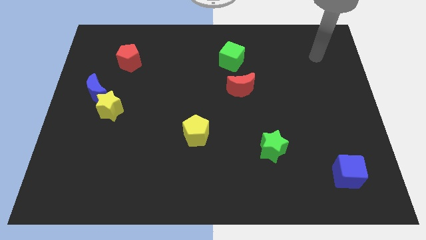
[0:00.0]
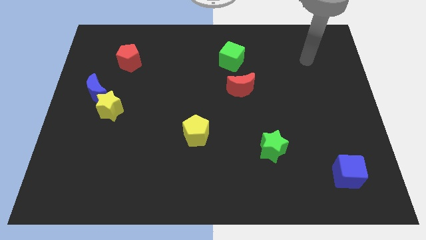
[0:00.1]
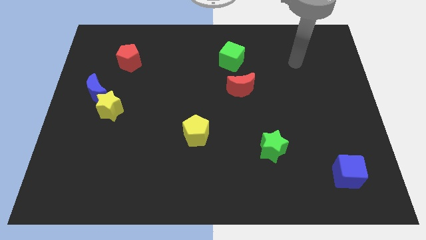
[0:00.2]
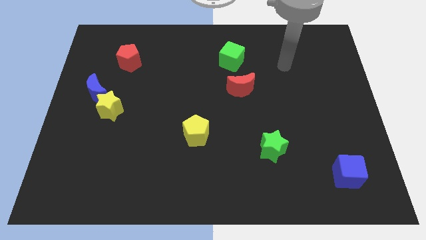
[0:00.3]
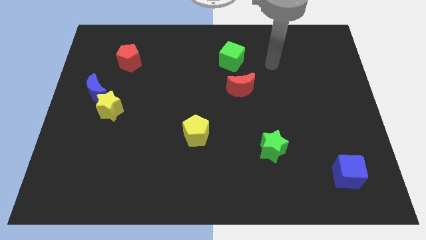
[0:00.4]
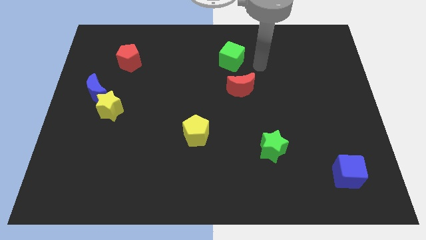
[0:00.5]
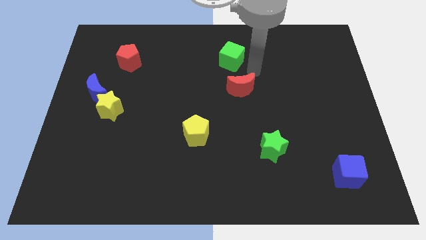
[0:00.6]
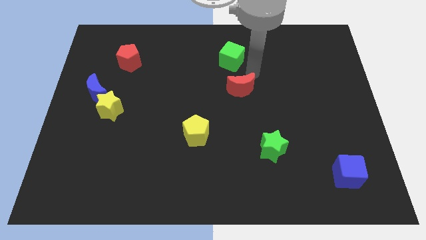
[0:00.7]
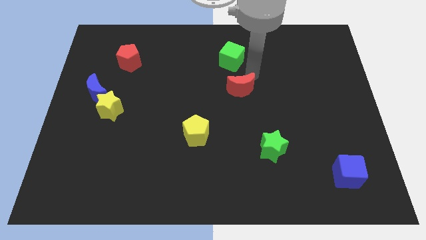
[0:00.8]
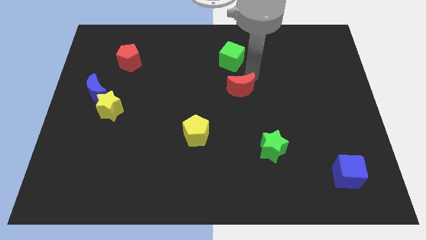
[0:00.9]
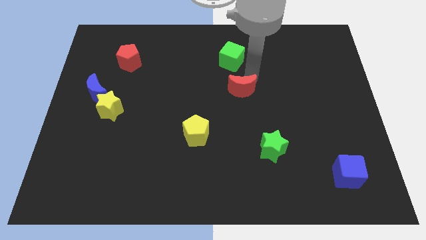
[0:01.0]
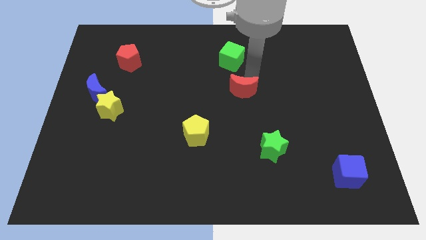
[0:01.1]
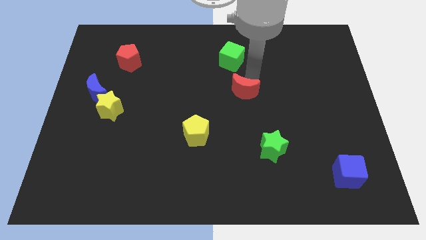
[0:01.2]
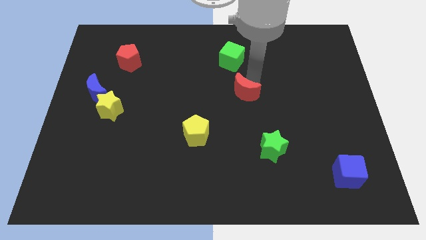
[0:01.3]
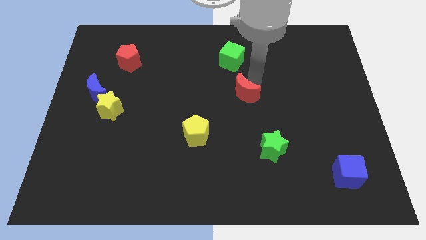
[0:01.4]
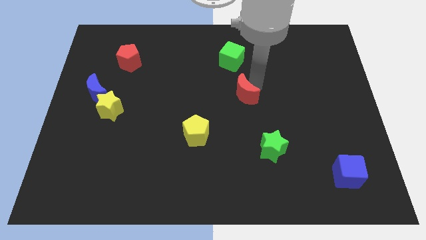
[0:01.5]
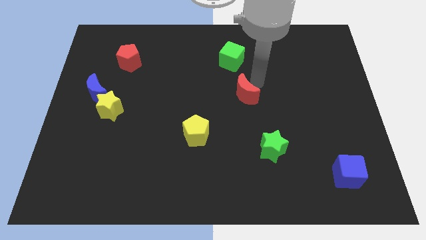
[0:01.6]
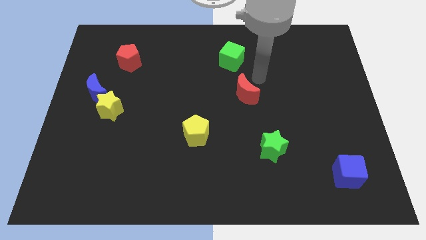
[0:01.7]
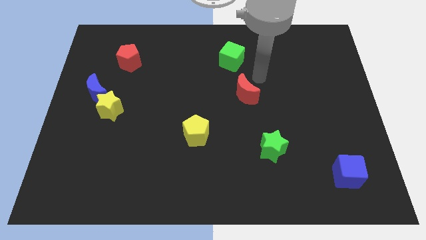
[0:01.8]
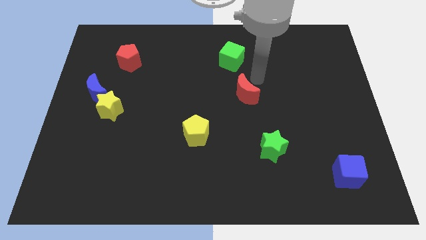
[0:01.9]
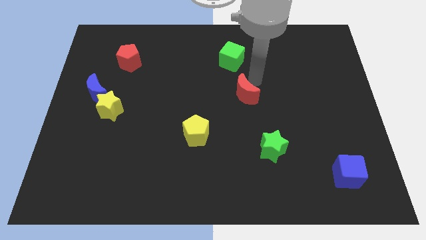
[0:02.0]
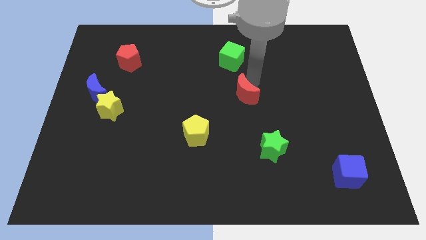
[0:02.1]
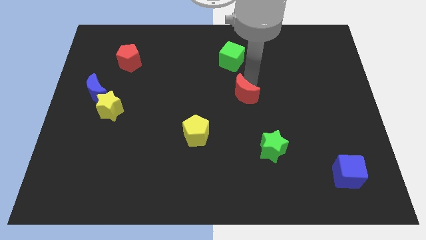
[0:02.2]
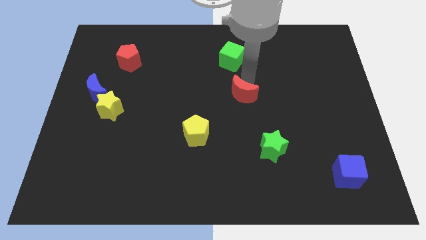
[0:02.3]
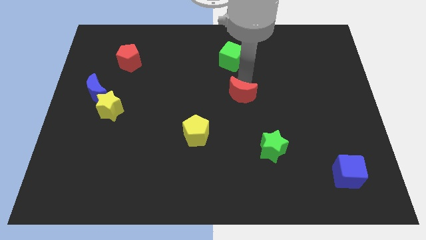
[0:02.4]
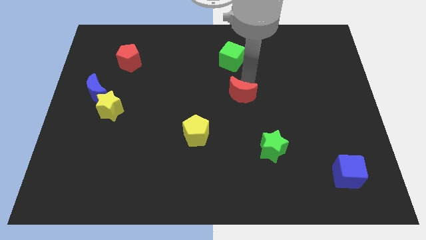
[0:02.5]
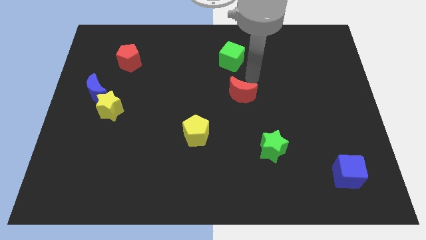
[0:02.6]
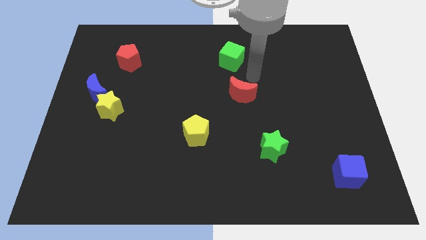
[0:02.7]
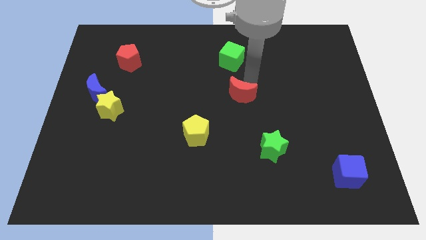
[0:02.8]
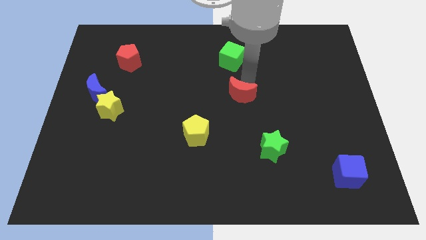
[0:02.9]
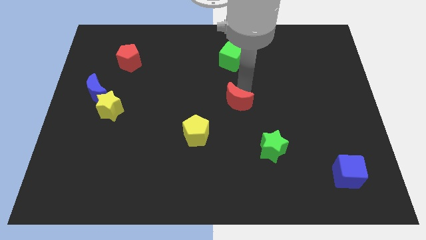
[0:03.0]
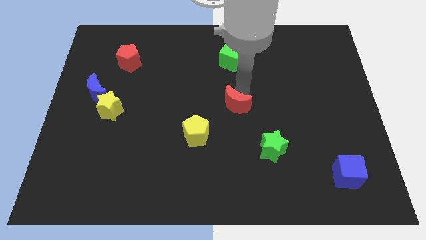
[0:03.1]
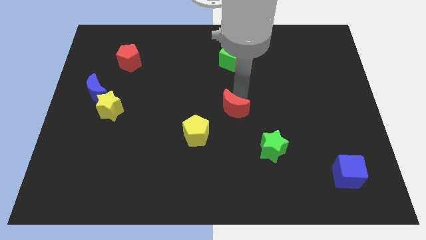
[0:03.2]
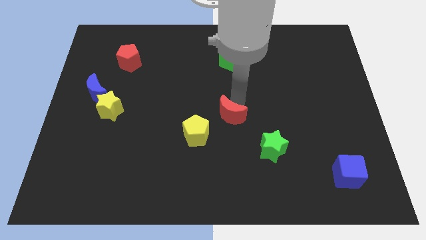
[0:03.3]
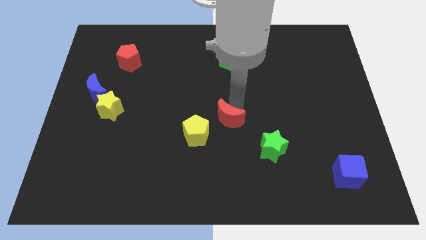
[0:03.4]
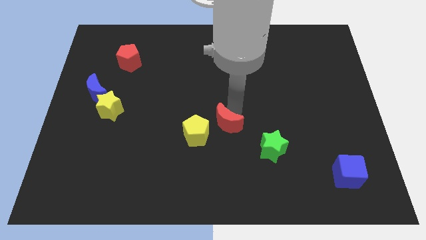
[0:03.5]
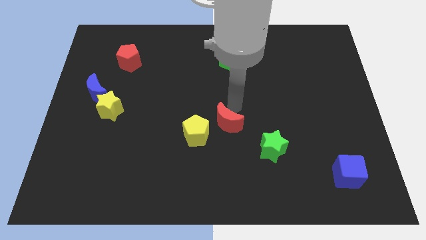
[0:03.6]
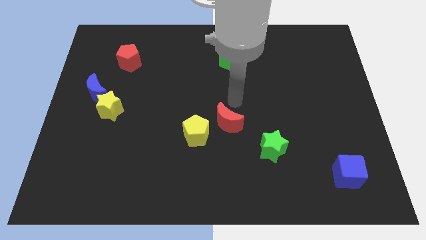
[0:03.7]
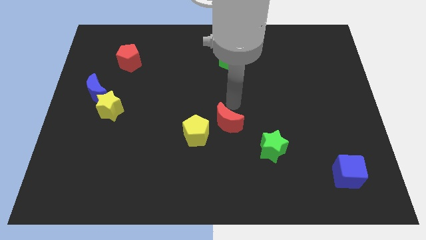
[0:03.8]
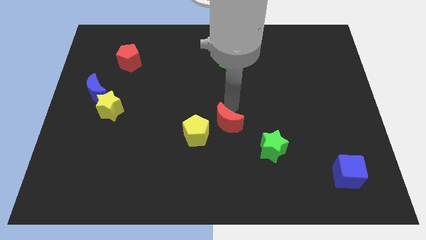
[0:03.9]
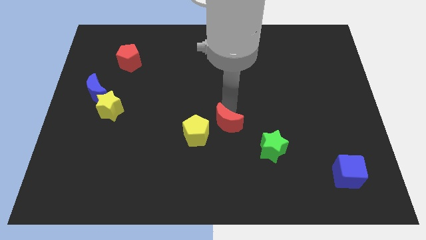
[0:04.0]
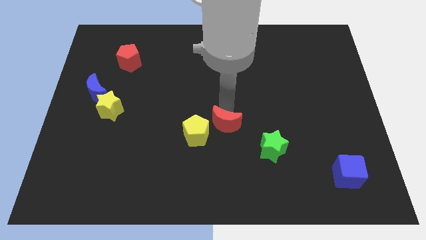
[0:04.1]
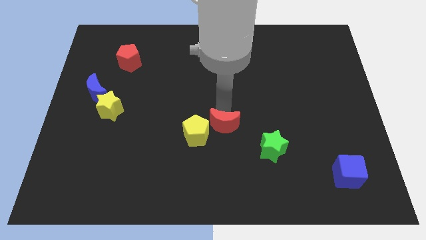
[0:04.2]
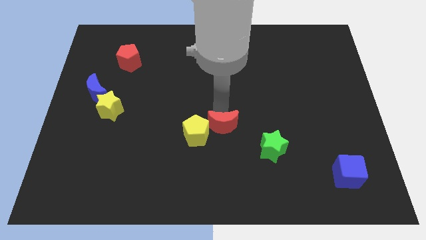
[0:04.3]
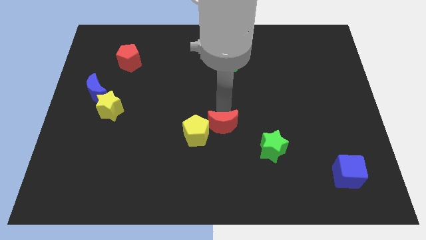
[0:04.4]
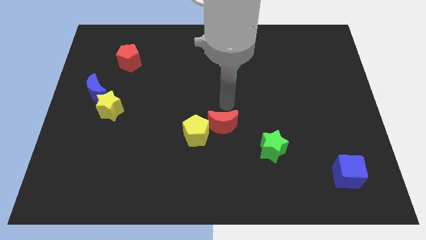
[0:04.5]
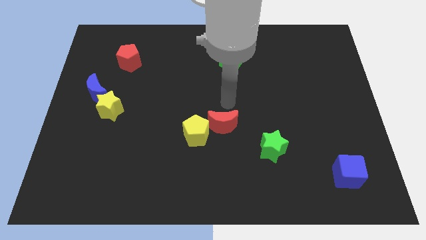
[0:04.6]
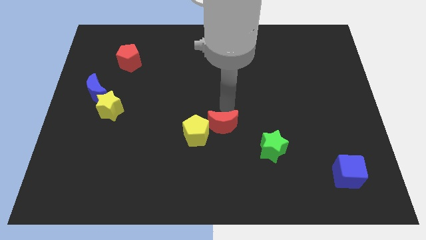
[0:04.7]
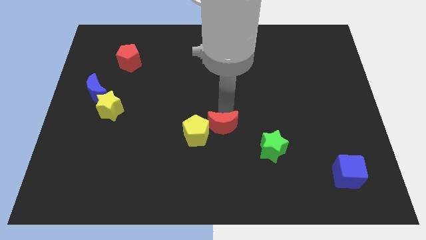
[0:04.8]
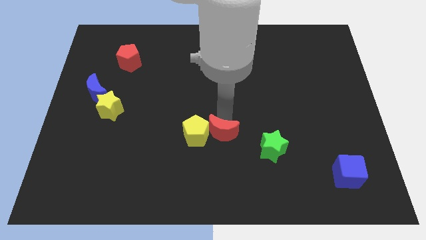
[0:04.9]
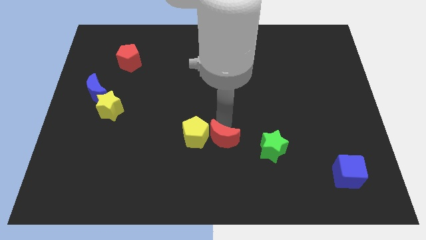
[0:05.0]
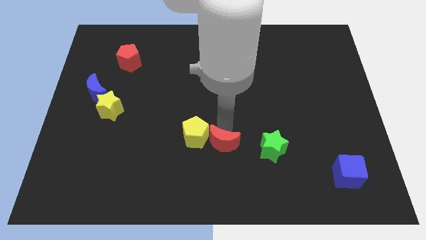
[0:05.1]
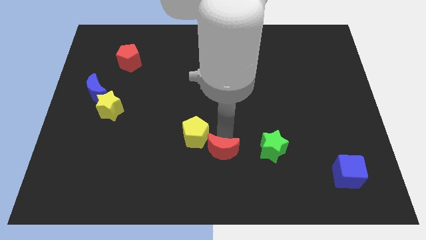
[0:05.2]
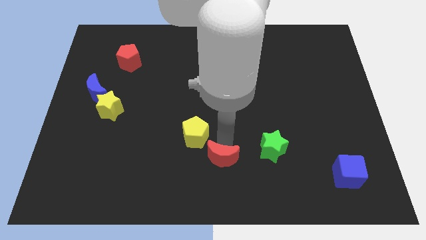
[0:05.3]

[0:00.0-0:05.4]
move the red moon to the bottom side

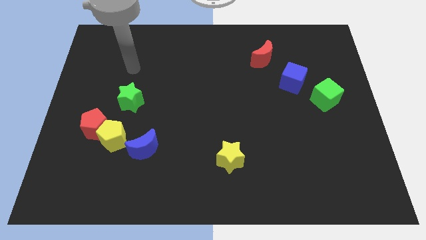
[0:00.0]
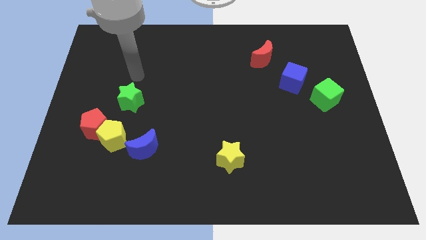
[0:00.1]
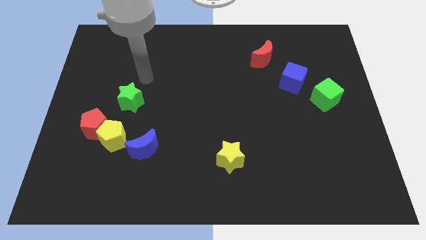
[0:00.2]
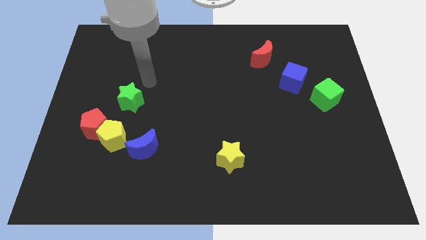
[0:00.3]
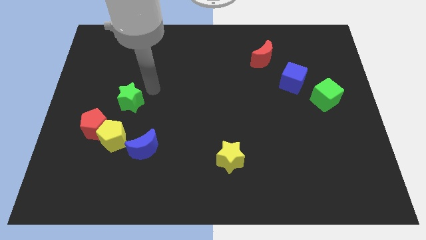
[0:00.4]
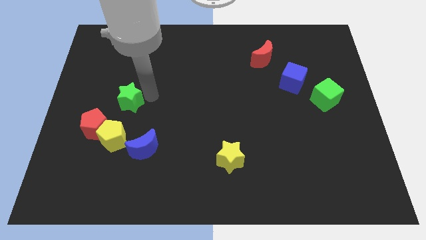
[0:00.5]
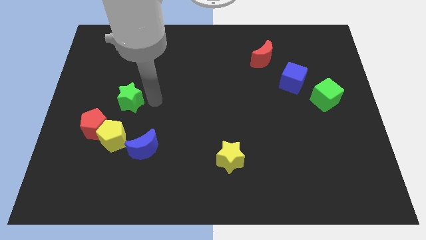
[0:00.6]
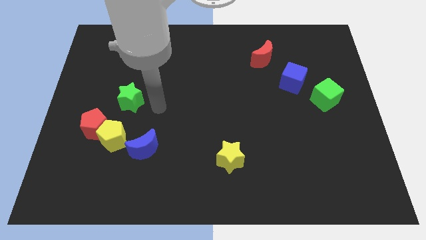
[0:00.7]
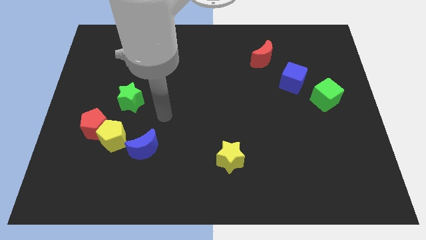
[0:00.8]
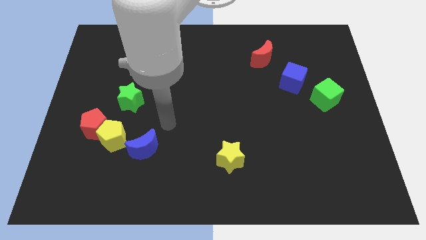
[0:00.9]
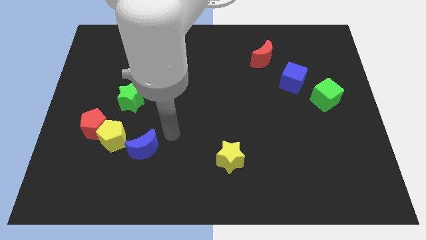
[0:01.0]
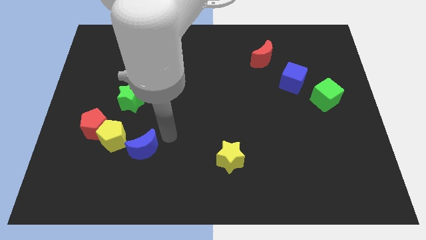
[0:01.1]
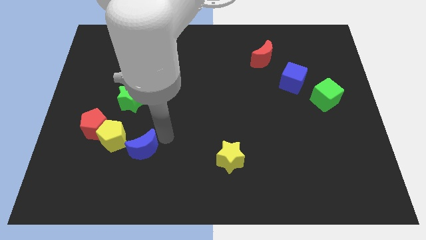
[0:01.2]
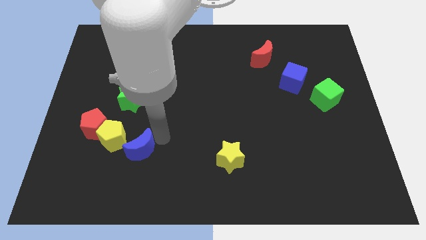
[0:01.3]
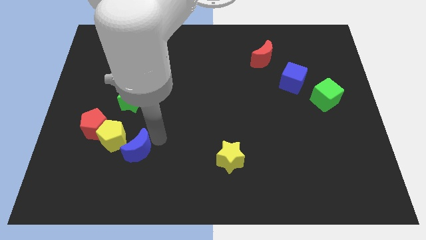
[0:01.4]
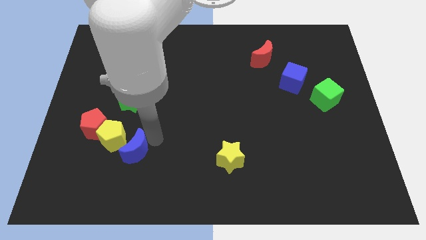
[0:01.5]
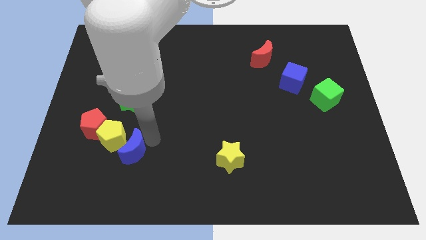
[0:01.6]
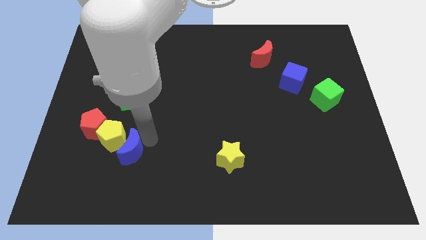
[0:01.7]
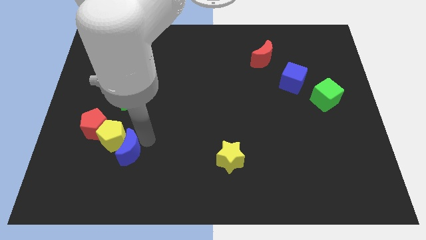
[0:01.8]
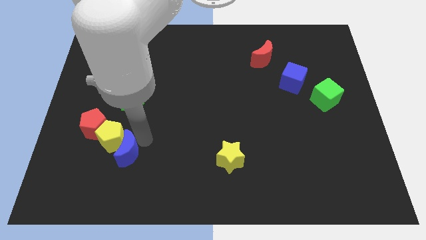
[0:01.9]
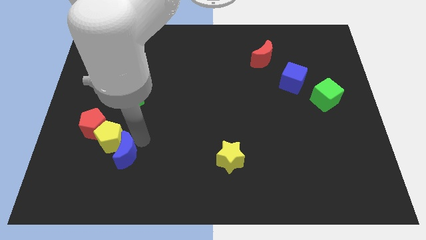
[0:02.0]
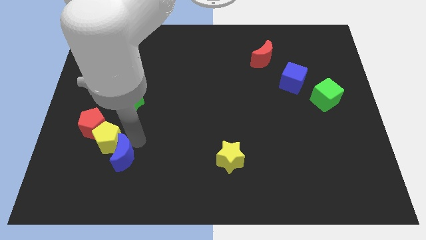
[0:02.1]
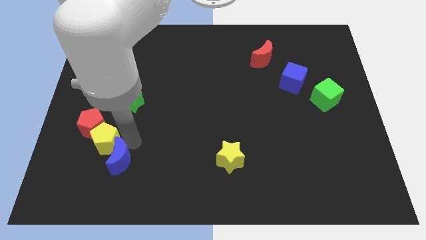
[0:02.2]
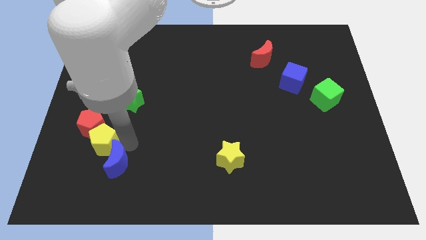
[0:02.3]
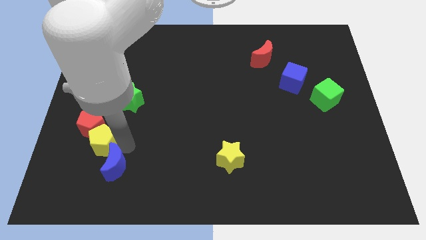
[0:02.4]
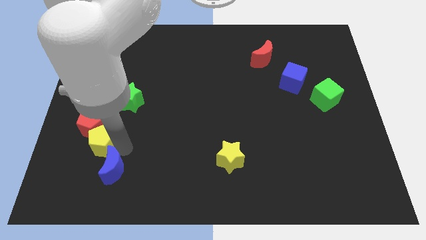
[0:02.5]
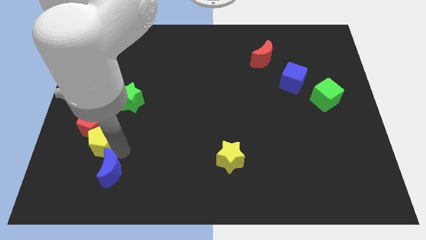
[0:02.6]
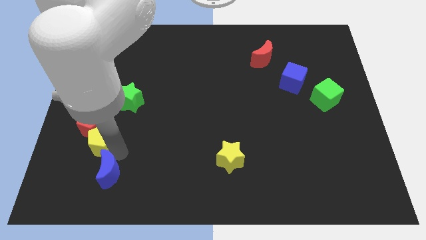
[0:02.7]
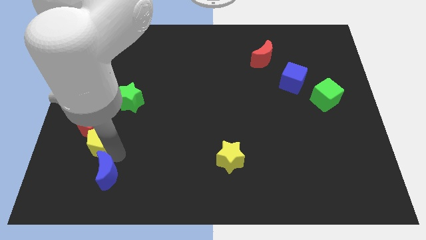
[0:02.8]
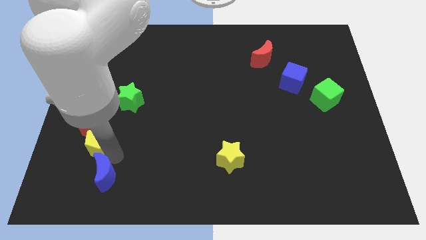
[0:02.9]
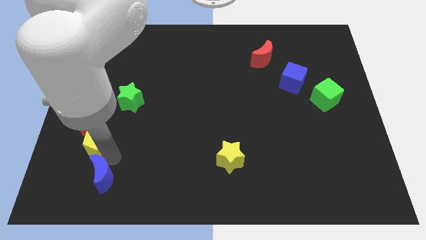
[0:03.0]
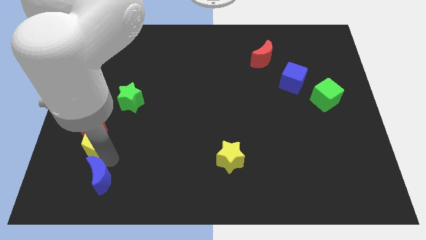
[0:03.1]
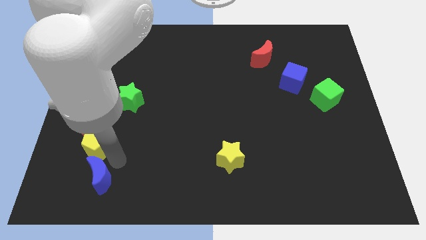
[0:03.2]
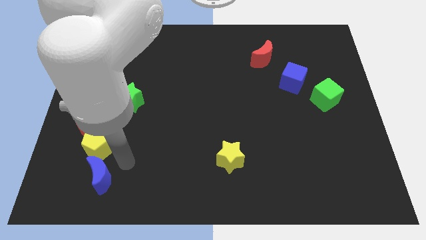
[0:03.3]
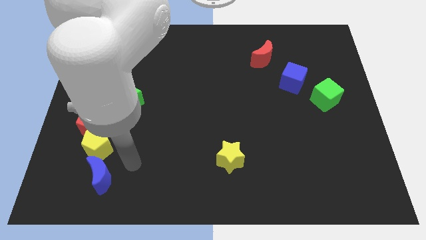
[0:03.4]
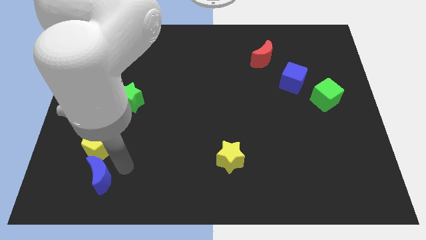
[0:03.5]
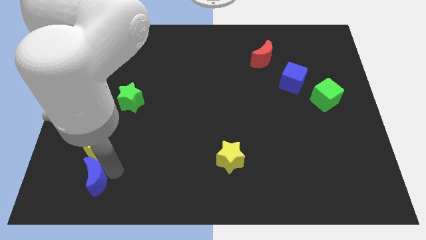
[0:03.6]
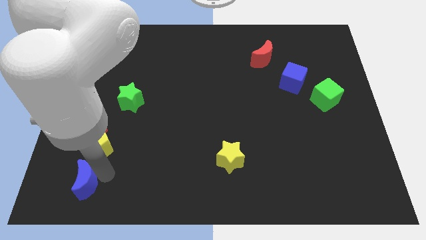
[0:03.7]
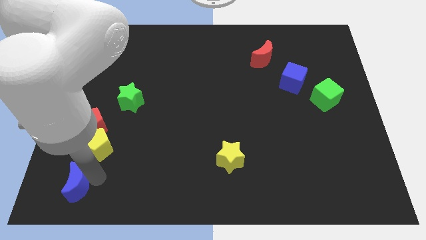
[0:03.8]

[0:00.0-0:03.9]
slide the blue moon to the lower left corner
